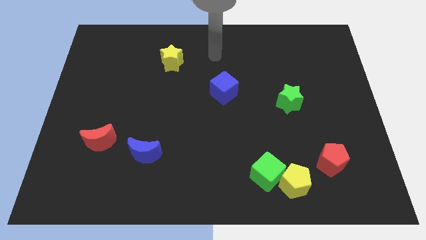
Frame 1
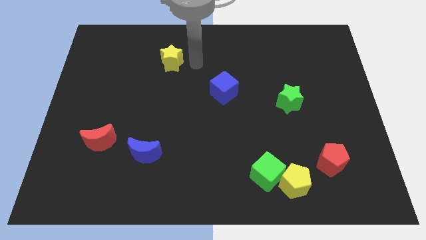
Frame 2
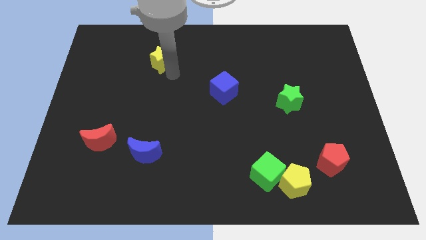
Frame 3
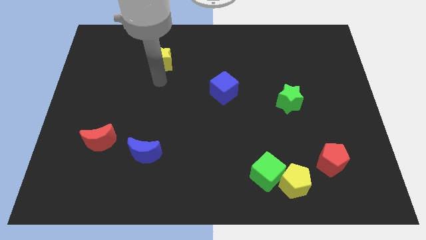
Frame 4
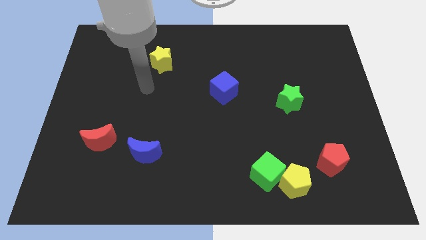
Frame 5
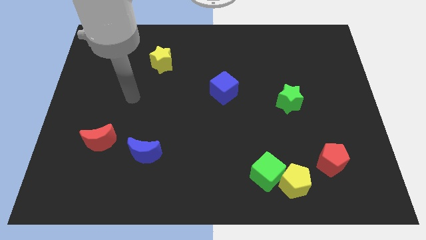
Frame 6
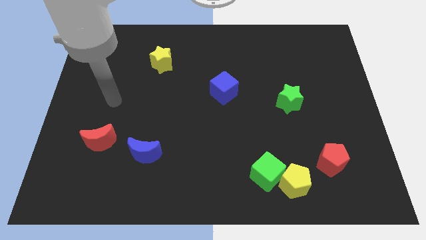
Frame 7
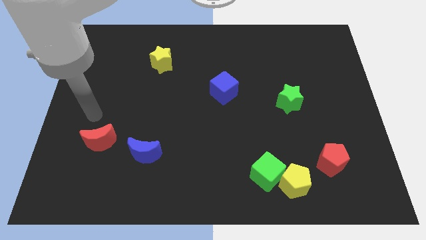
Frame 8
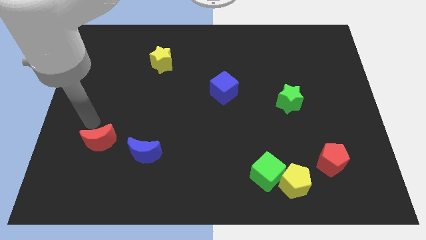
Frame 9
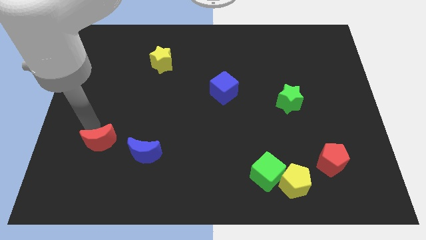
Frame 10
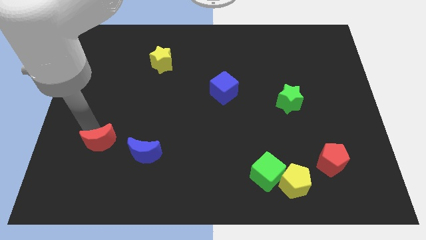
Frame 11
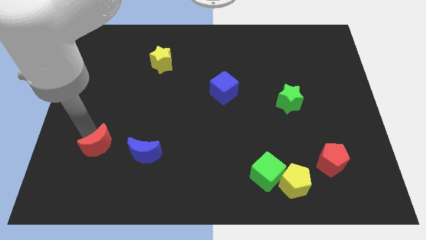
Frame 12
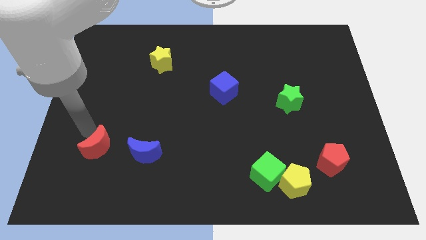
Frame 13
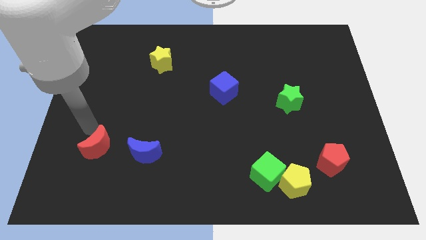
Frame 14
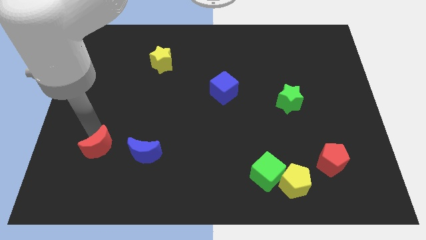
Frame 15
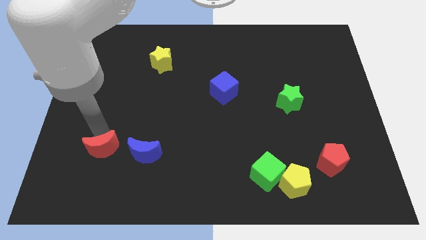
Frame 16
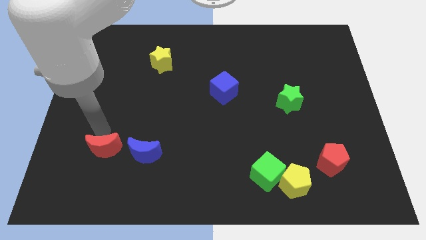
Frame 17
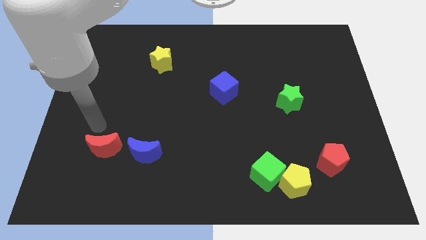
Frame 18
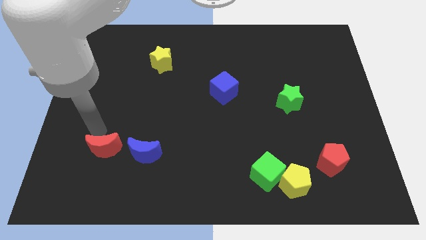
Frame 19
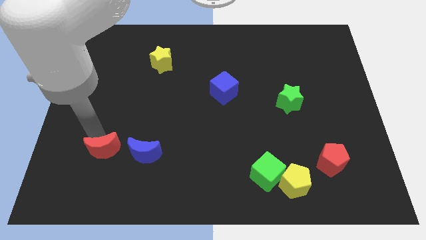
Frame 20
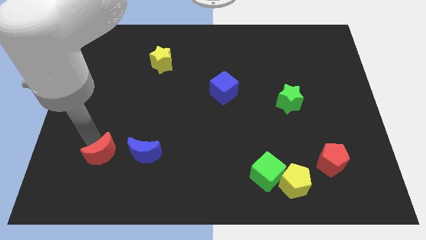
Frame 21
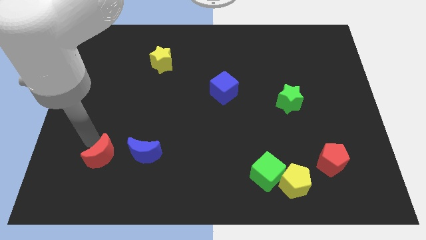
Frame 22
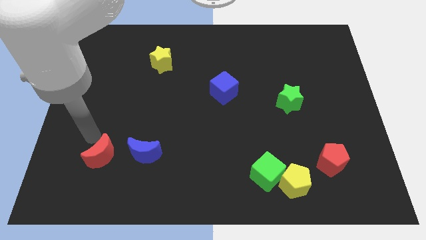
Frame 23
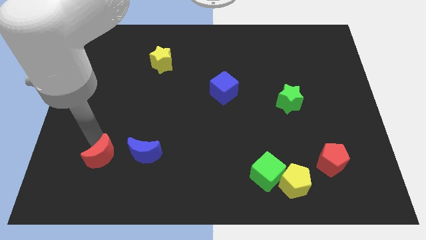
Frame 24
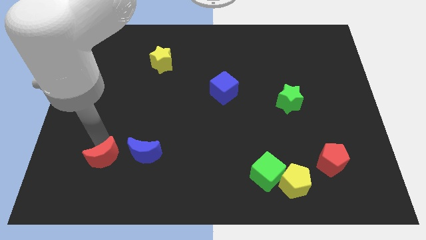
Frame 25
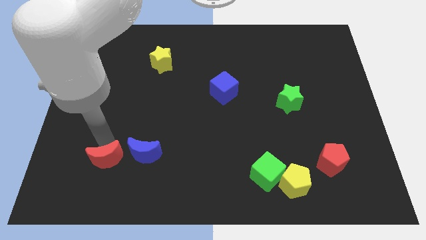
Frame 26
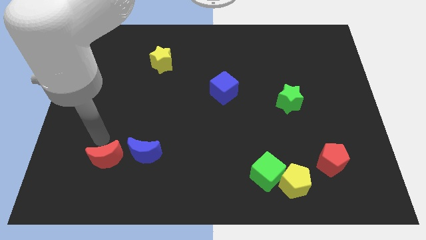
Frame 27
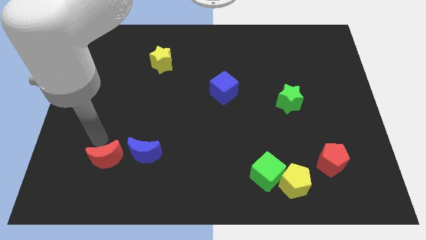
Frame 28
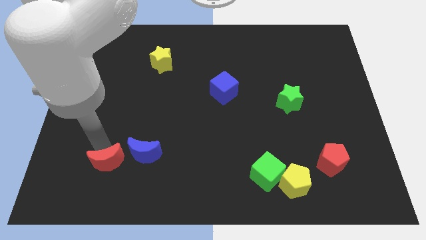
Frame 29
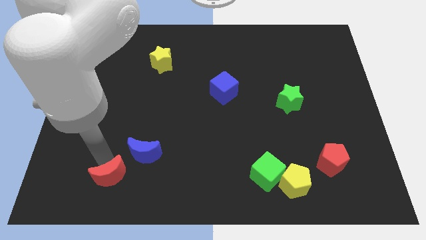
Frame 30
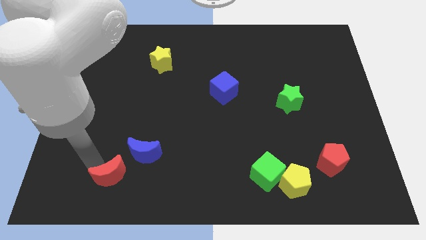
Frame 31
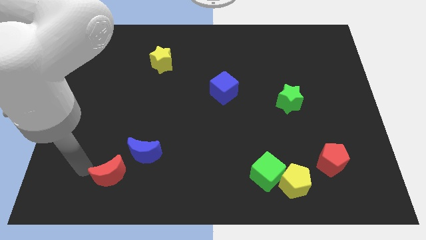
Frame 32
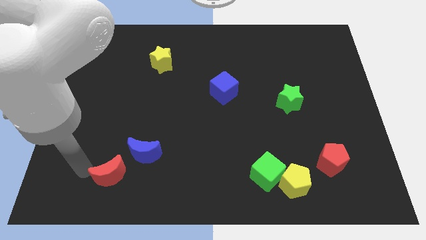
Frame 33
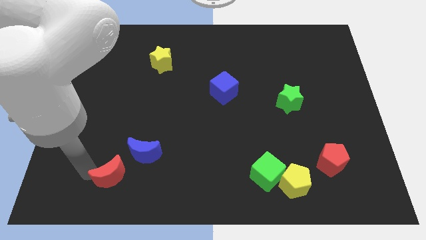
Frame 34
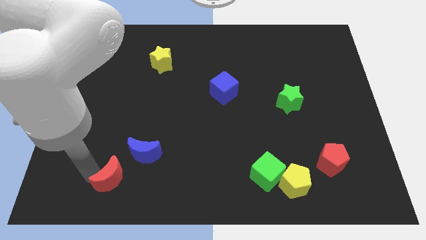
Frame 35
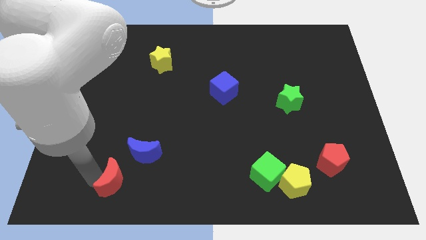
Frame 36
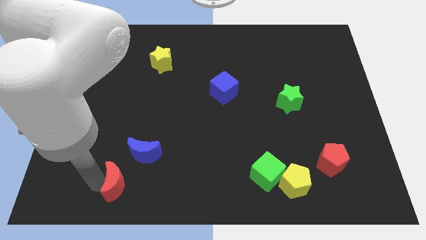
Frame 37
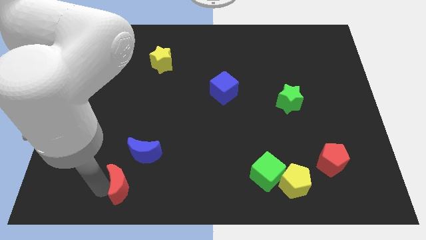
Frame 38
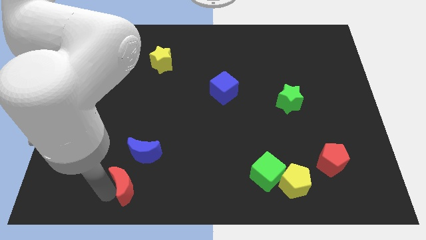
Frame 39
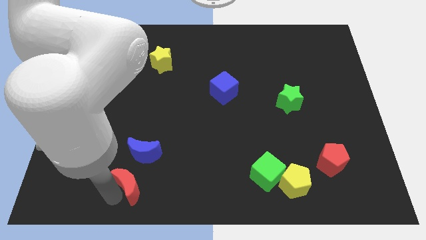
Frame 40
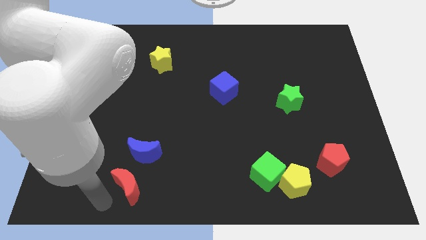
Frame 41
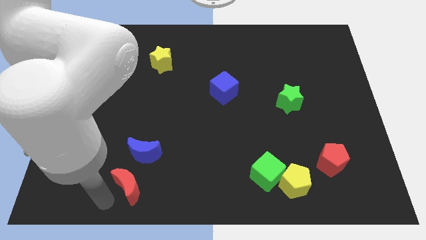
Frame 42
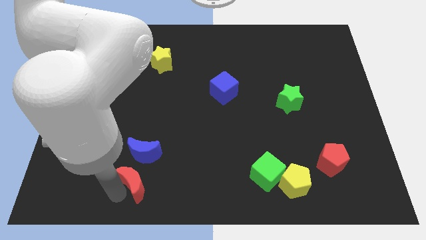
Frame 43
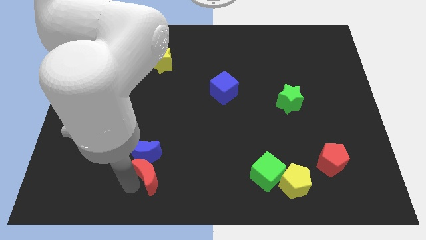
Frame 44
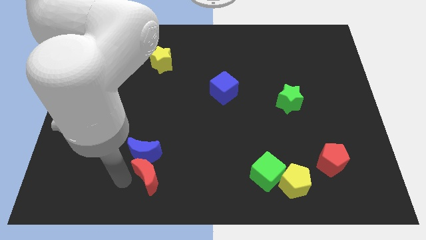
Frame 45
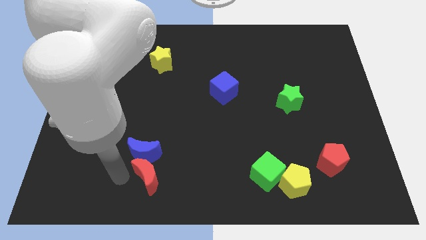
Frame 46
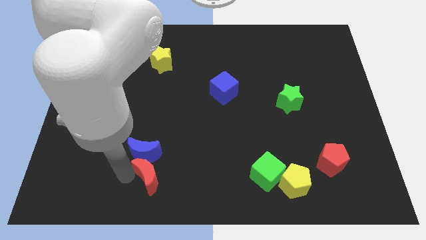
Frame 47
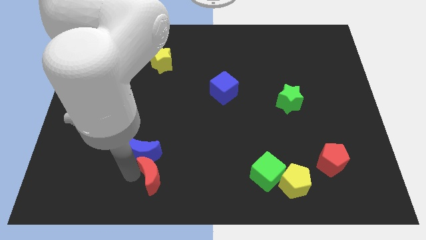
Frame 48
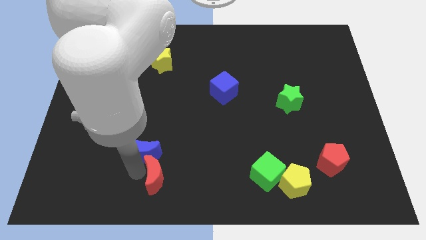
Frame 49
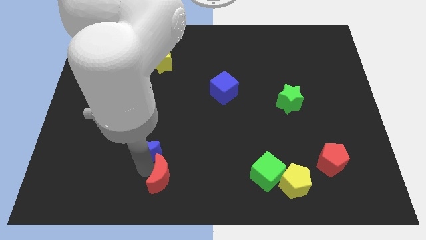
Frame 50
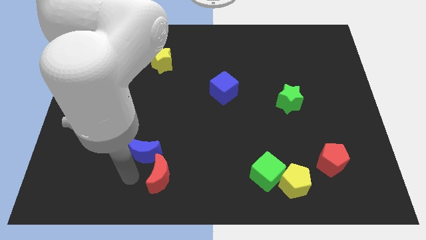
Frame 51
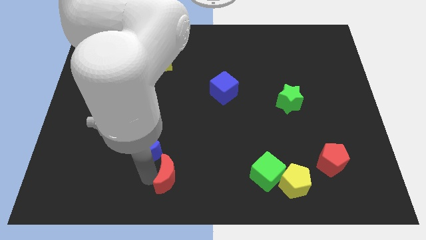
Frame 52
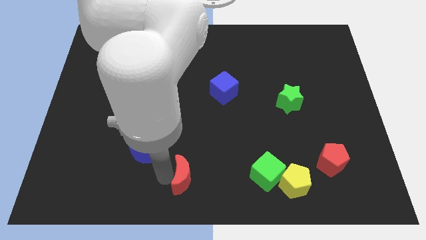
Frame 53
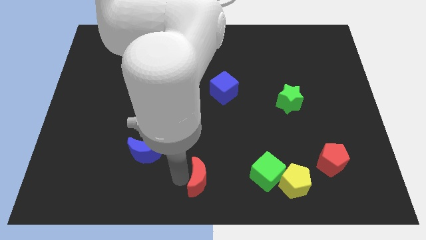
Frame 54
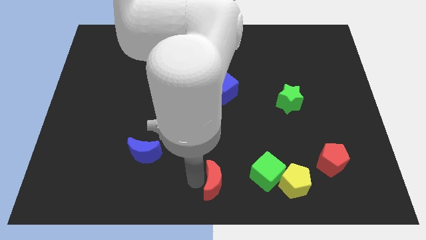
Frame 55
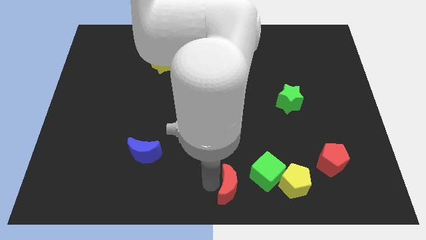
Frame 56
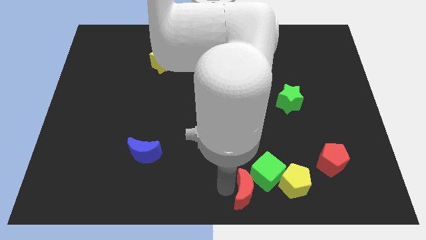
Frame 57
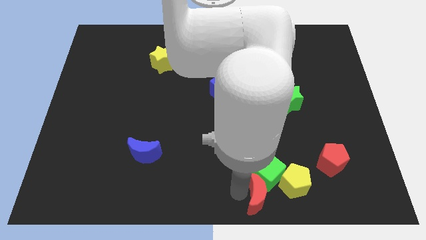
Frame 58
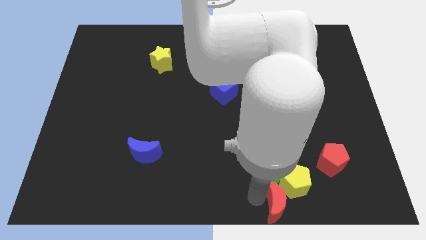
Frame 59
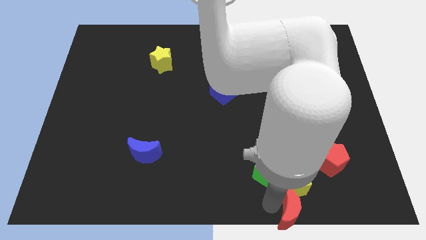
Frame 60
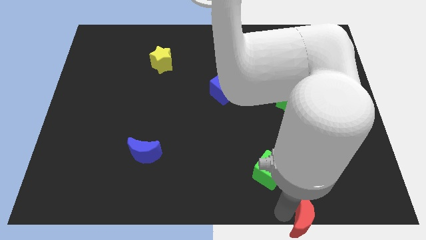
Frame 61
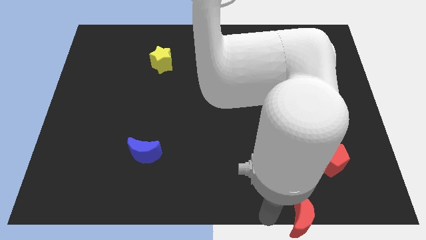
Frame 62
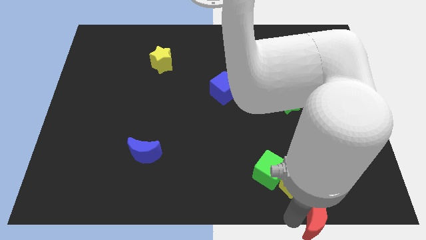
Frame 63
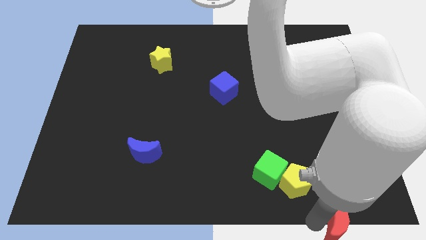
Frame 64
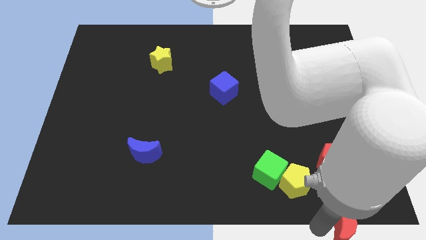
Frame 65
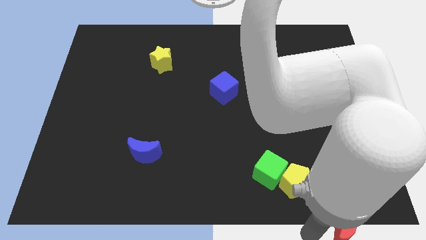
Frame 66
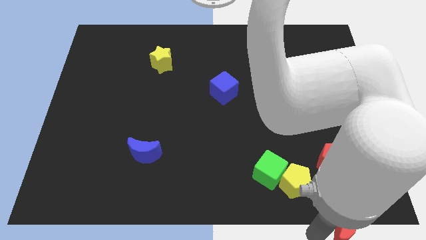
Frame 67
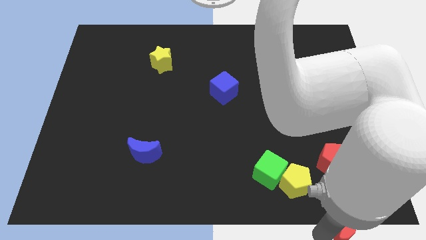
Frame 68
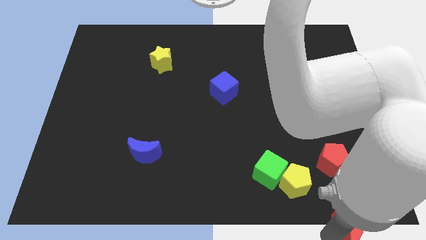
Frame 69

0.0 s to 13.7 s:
slide the red moon to the lower right corner

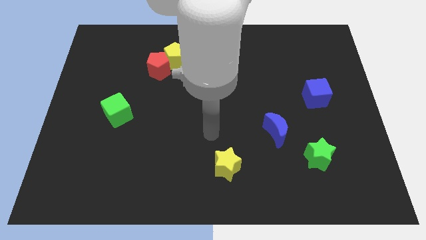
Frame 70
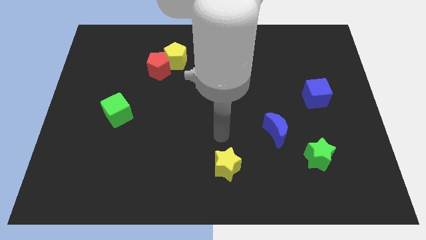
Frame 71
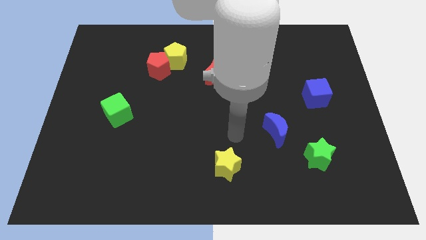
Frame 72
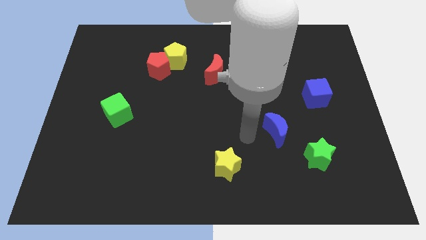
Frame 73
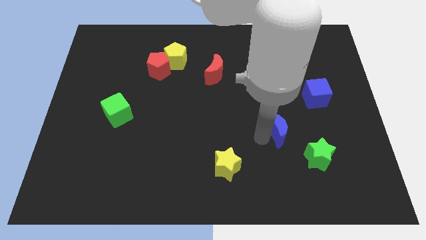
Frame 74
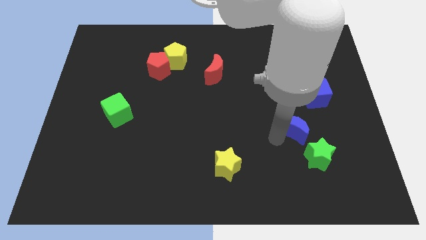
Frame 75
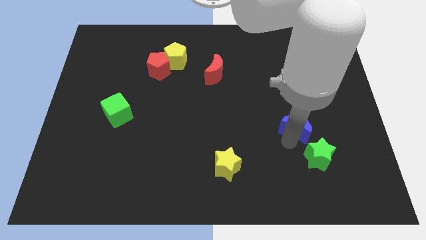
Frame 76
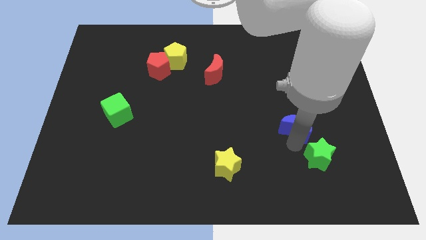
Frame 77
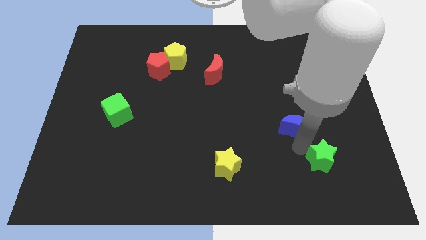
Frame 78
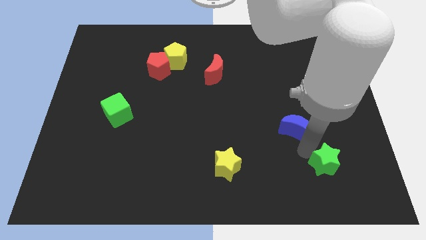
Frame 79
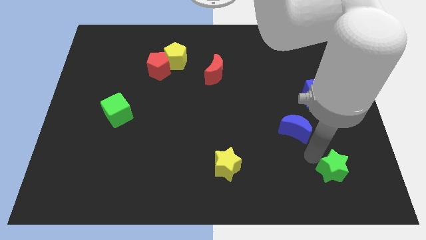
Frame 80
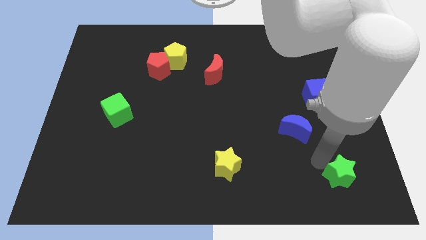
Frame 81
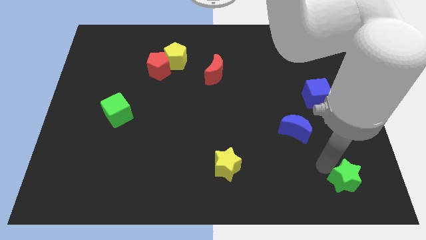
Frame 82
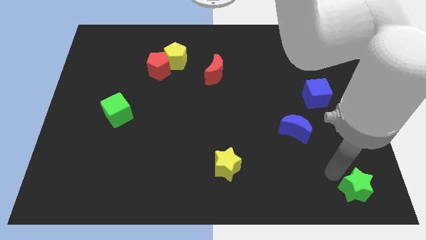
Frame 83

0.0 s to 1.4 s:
put the green star to the lower right corner
